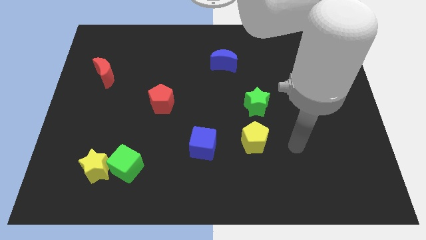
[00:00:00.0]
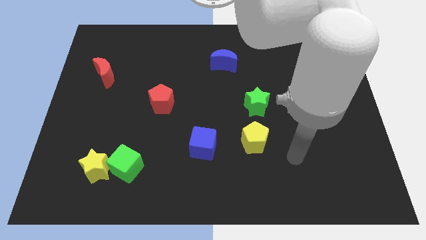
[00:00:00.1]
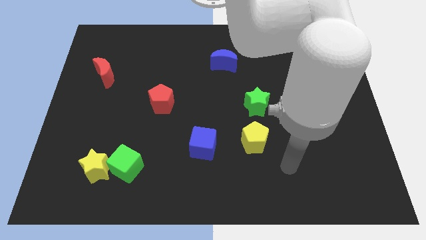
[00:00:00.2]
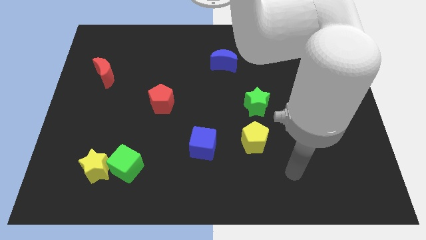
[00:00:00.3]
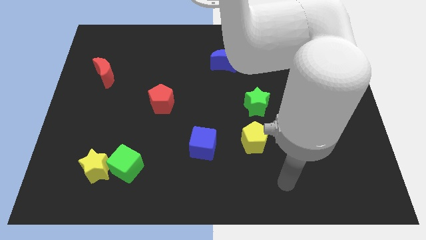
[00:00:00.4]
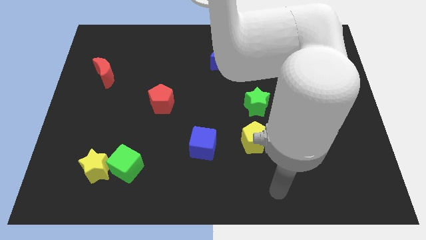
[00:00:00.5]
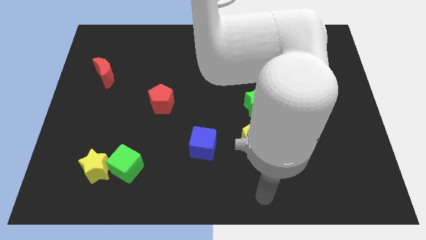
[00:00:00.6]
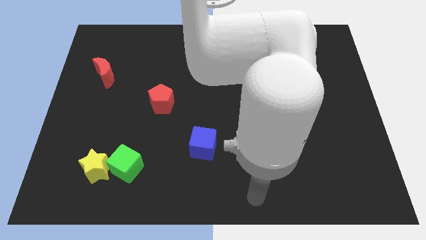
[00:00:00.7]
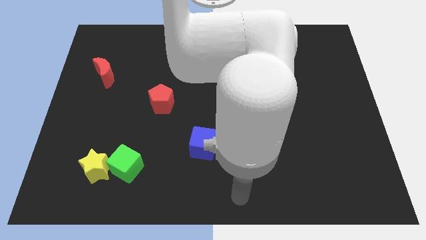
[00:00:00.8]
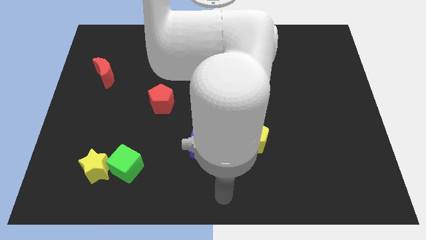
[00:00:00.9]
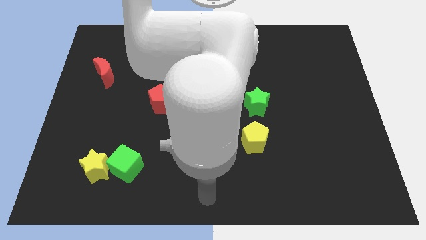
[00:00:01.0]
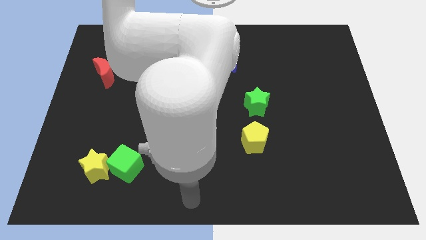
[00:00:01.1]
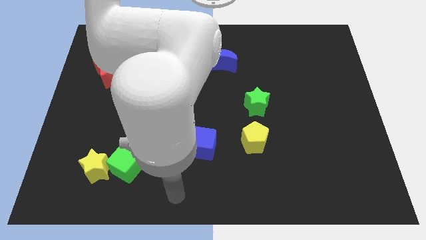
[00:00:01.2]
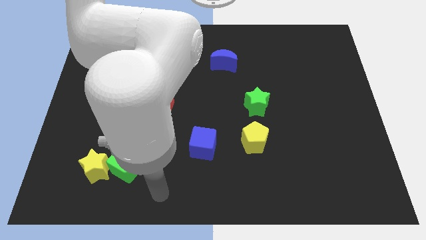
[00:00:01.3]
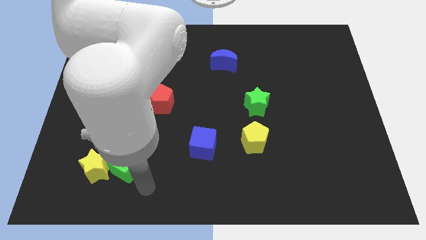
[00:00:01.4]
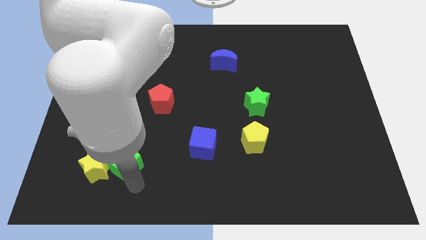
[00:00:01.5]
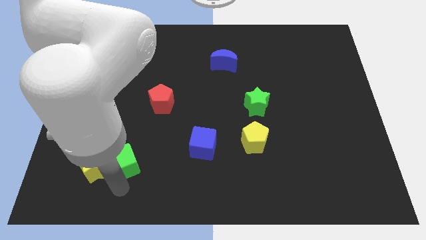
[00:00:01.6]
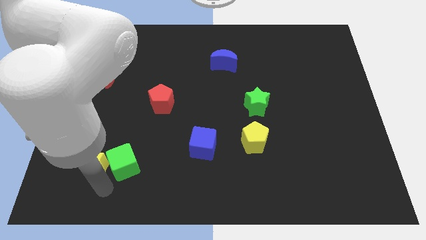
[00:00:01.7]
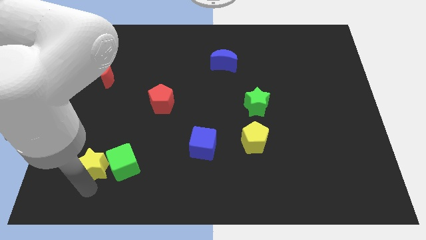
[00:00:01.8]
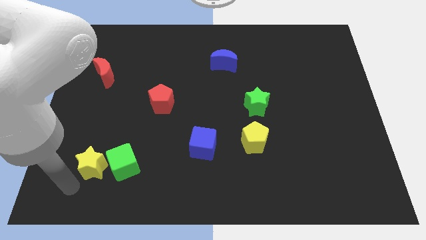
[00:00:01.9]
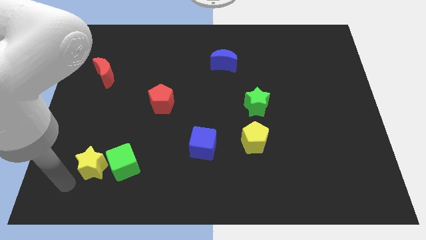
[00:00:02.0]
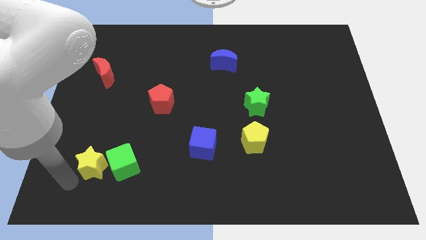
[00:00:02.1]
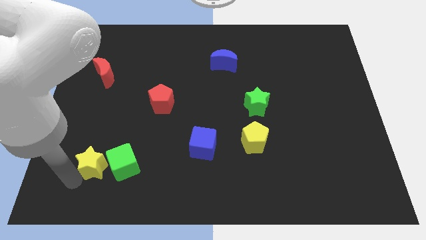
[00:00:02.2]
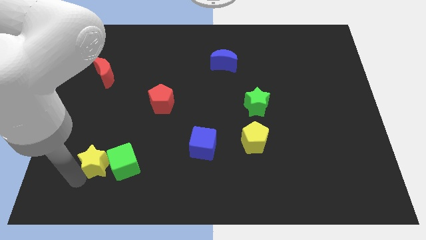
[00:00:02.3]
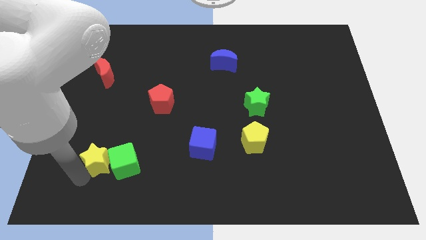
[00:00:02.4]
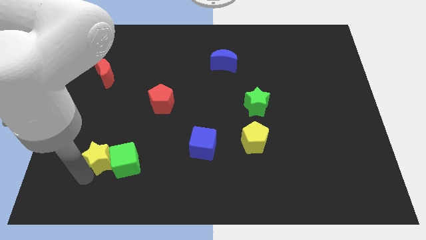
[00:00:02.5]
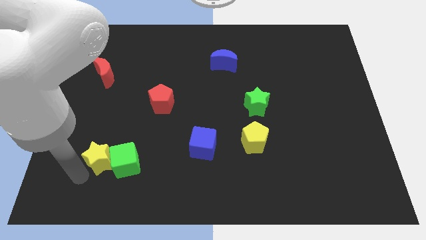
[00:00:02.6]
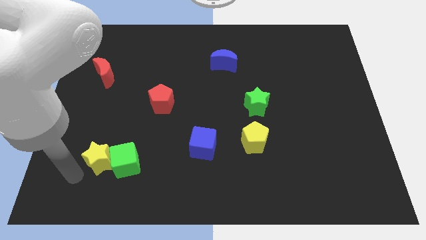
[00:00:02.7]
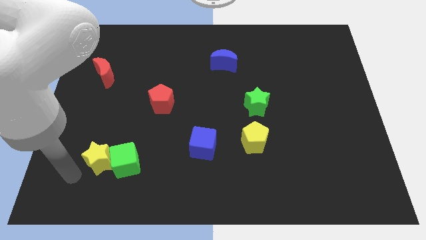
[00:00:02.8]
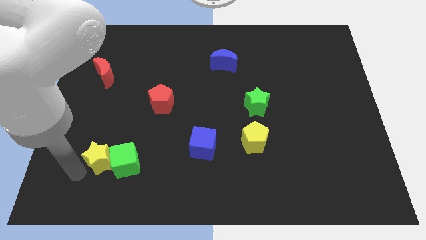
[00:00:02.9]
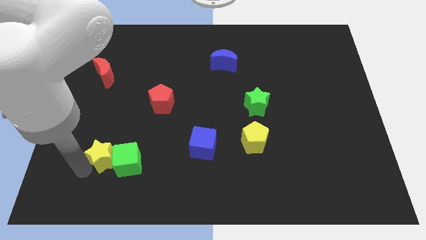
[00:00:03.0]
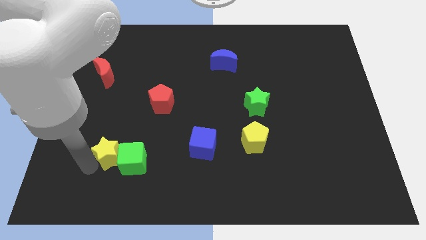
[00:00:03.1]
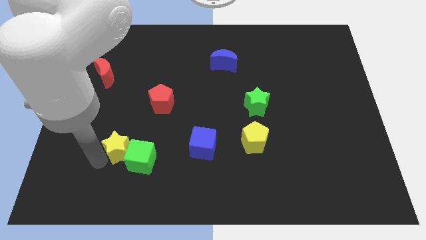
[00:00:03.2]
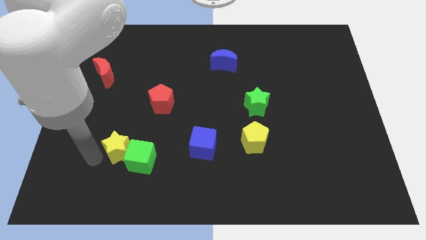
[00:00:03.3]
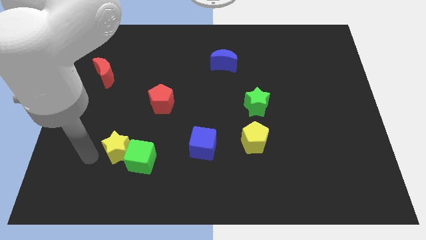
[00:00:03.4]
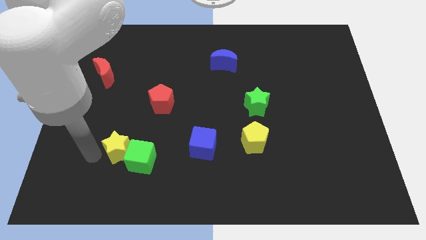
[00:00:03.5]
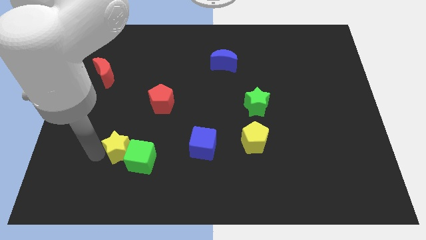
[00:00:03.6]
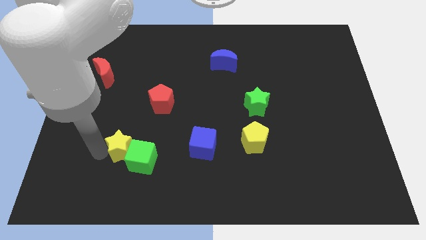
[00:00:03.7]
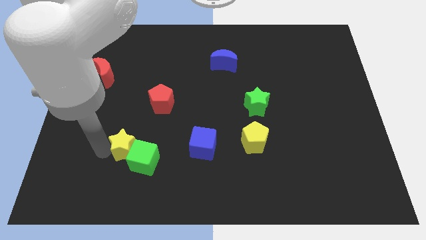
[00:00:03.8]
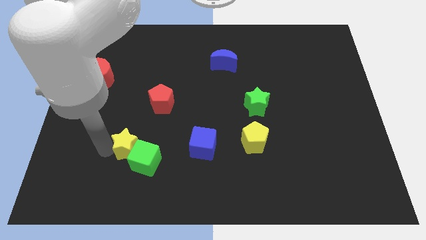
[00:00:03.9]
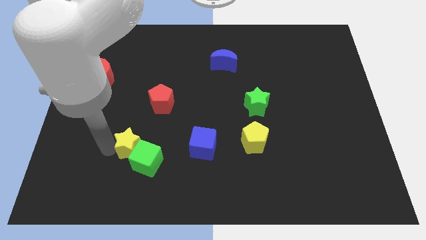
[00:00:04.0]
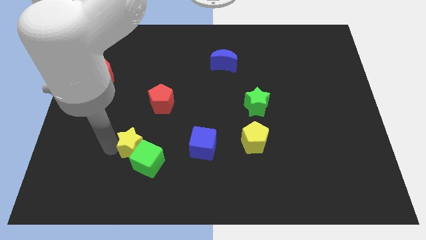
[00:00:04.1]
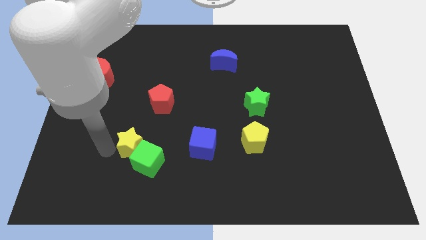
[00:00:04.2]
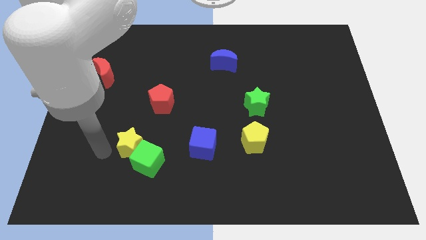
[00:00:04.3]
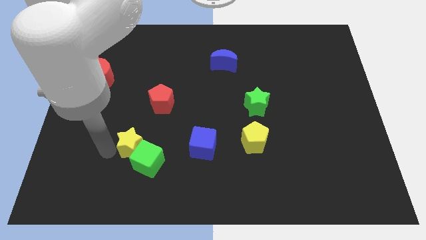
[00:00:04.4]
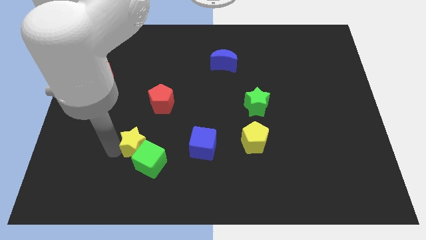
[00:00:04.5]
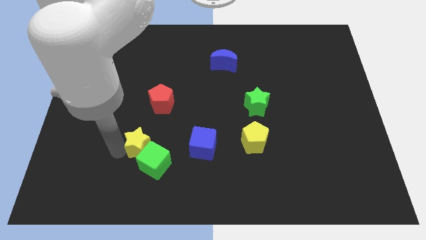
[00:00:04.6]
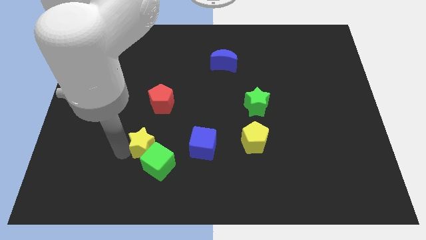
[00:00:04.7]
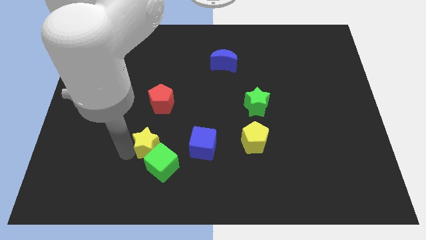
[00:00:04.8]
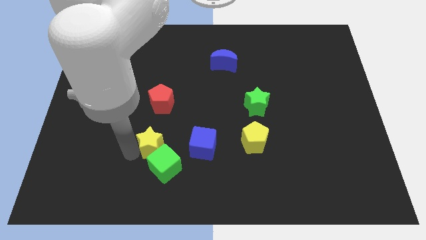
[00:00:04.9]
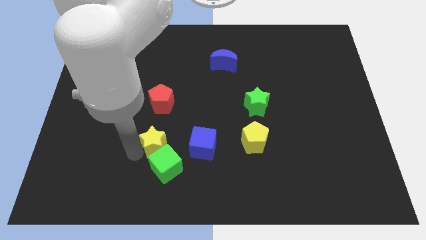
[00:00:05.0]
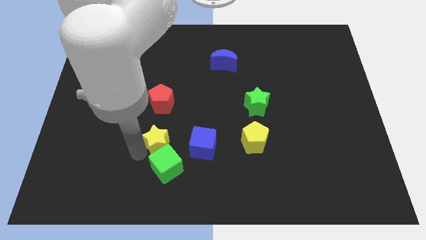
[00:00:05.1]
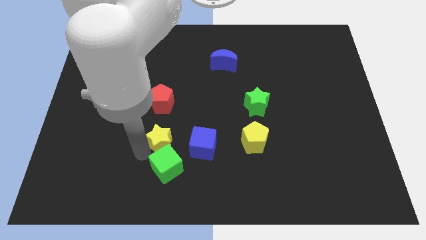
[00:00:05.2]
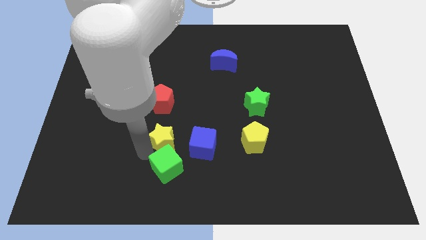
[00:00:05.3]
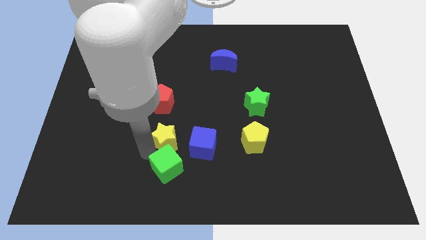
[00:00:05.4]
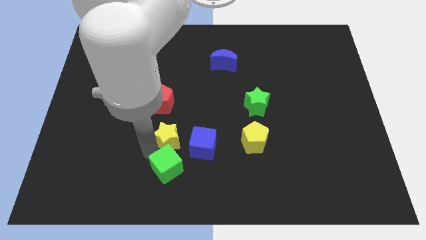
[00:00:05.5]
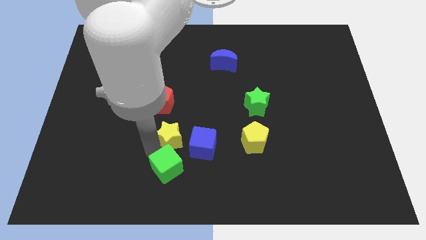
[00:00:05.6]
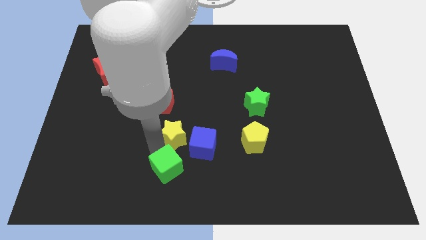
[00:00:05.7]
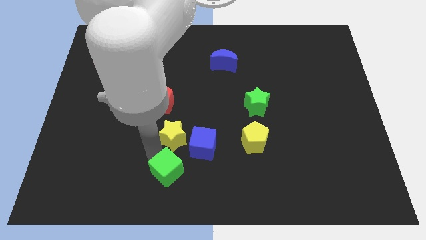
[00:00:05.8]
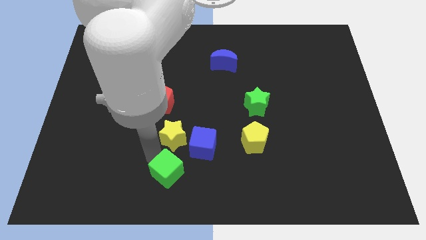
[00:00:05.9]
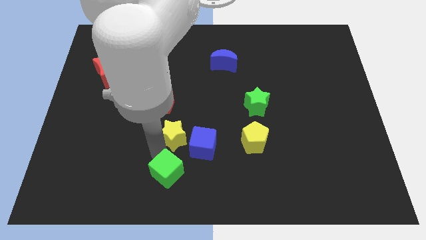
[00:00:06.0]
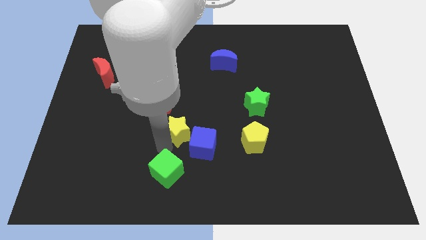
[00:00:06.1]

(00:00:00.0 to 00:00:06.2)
push the yellow star to the middle
